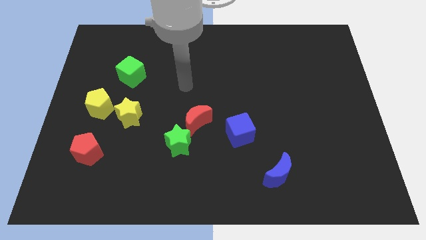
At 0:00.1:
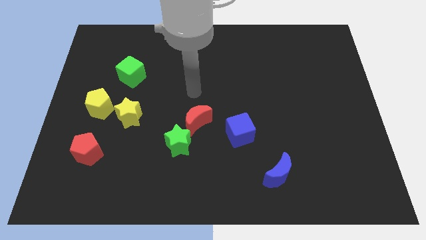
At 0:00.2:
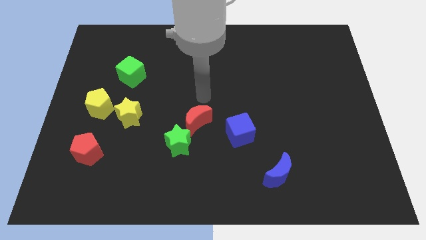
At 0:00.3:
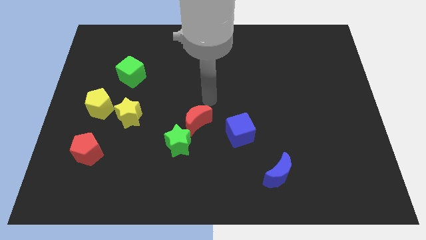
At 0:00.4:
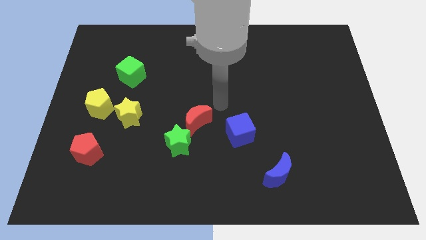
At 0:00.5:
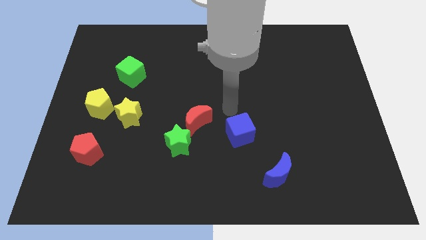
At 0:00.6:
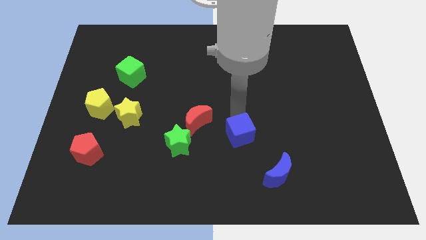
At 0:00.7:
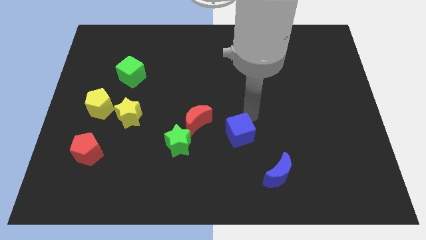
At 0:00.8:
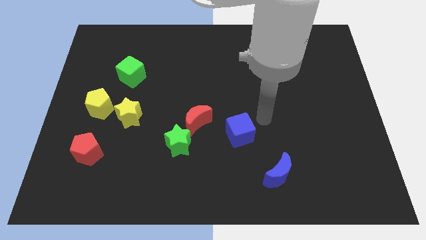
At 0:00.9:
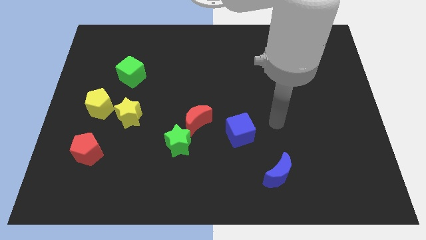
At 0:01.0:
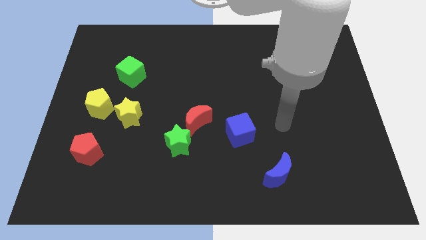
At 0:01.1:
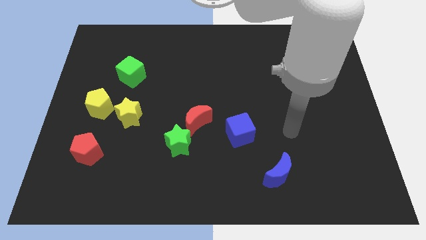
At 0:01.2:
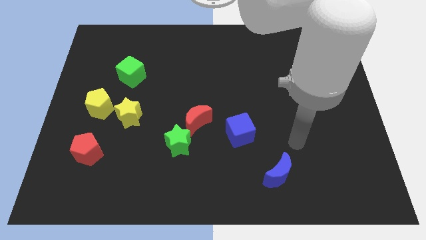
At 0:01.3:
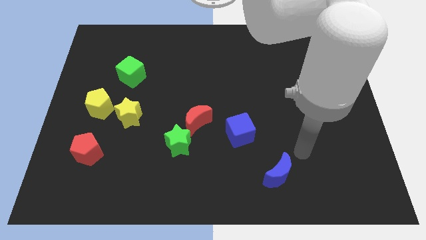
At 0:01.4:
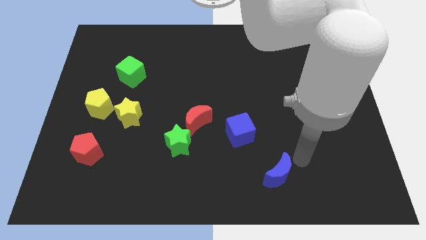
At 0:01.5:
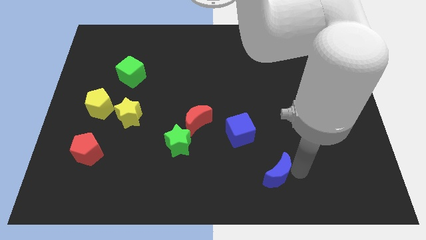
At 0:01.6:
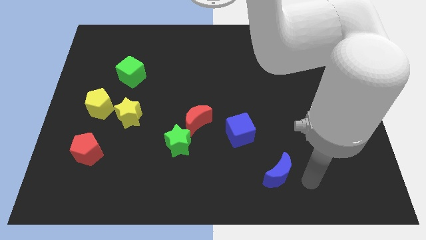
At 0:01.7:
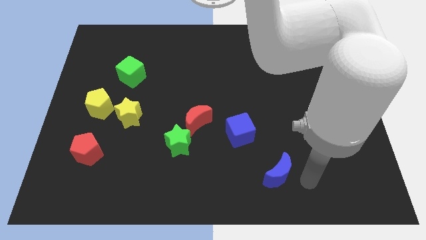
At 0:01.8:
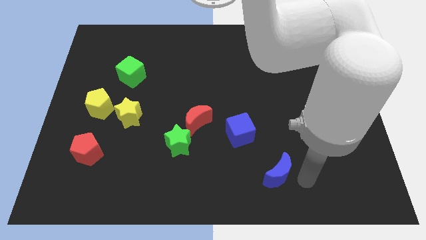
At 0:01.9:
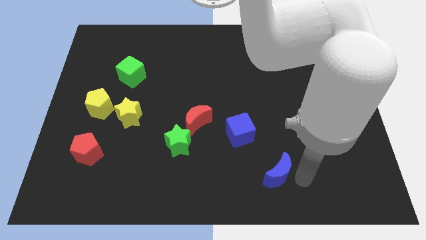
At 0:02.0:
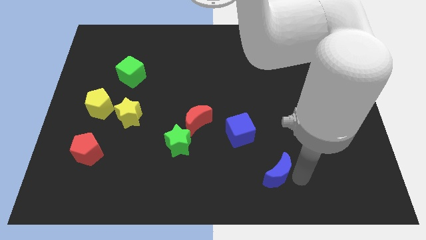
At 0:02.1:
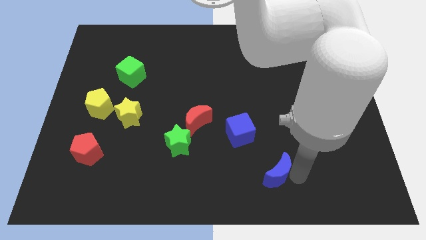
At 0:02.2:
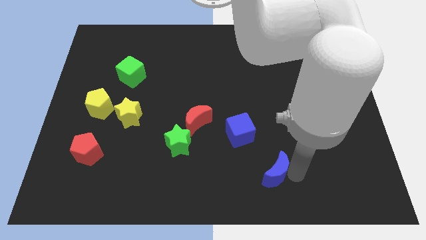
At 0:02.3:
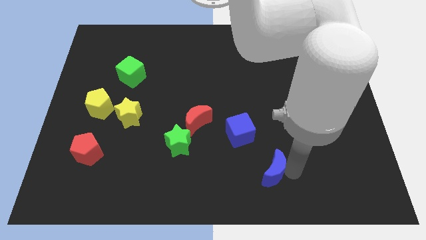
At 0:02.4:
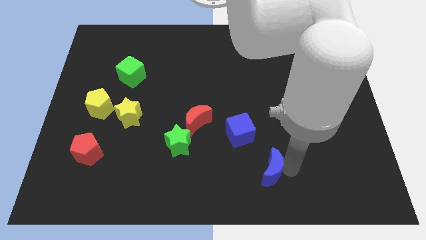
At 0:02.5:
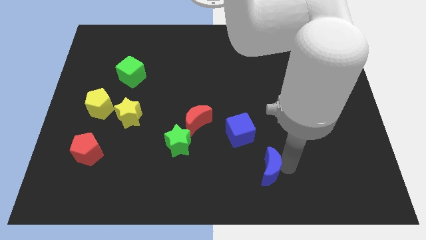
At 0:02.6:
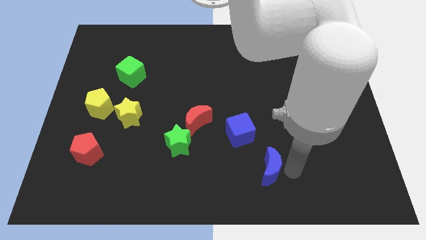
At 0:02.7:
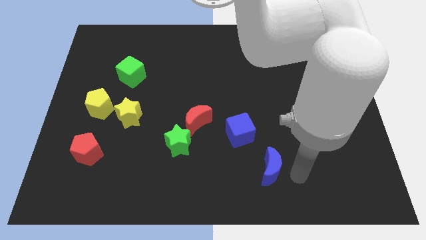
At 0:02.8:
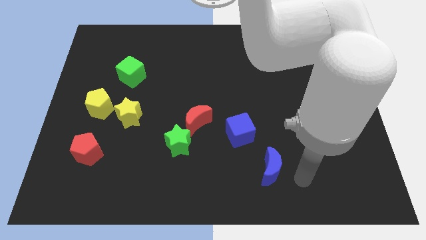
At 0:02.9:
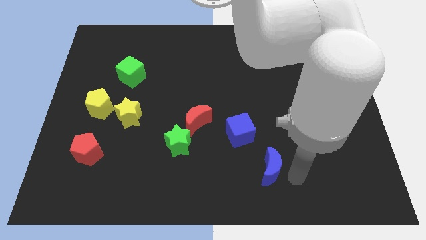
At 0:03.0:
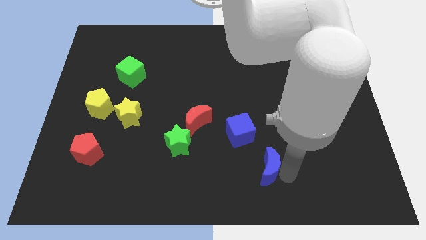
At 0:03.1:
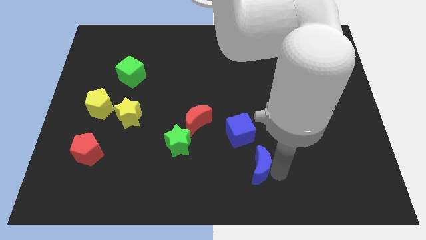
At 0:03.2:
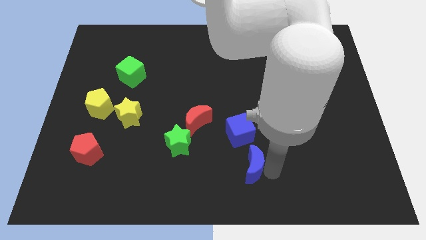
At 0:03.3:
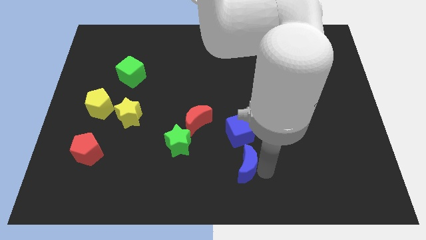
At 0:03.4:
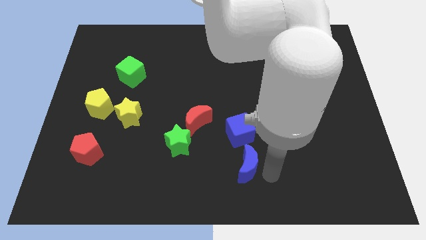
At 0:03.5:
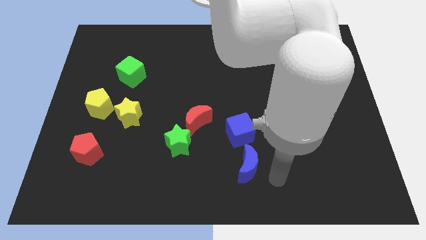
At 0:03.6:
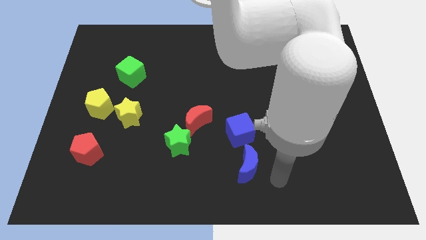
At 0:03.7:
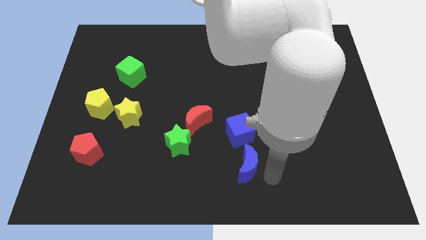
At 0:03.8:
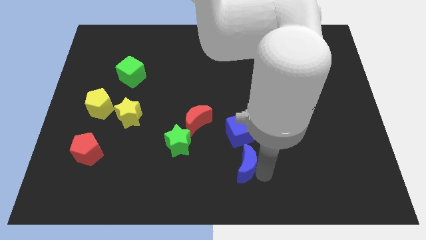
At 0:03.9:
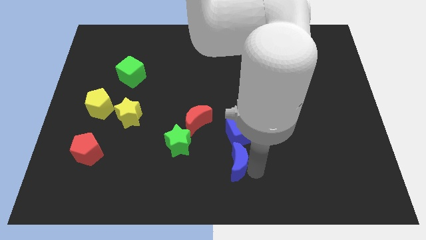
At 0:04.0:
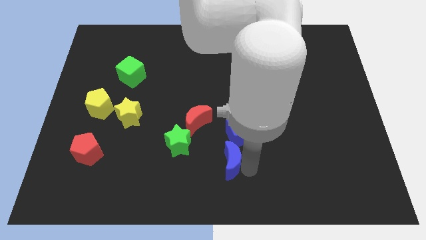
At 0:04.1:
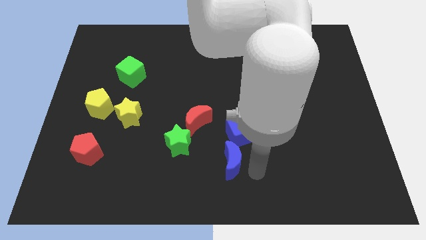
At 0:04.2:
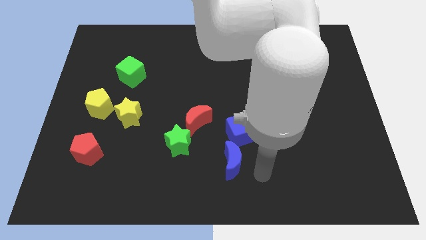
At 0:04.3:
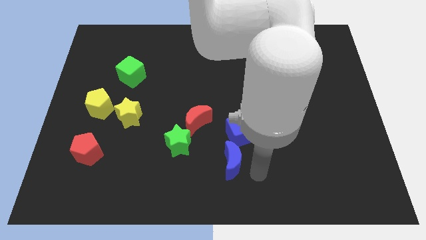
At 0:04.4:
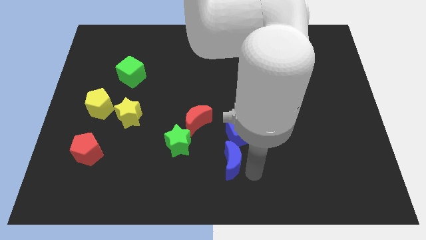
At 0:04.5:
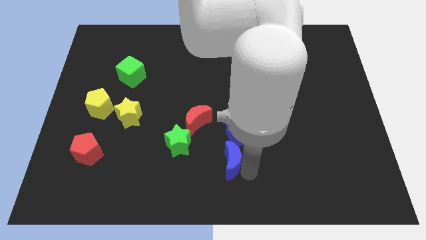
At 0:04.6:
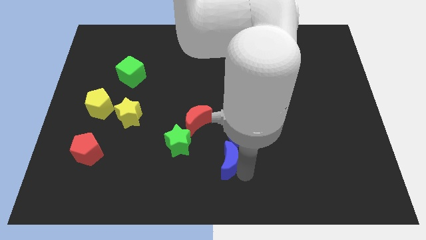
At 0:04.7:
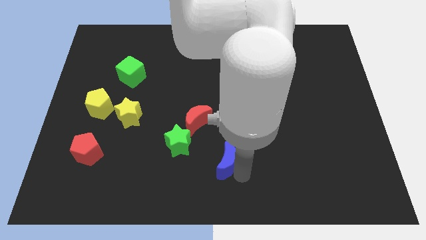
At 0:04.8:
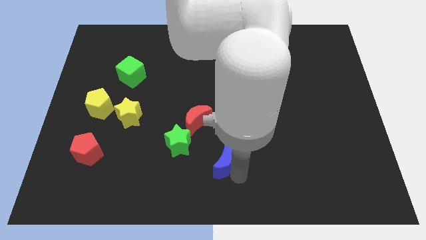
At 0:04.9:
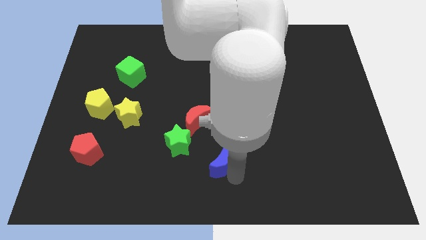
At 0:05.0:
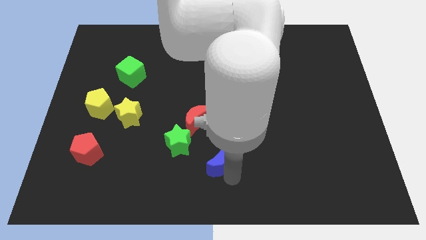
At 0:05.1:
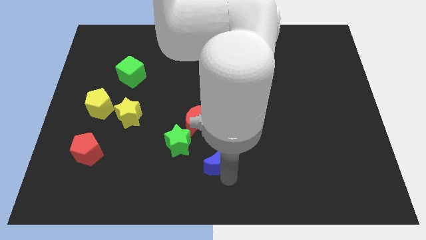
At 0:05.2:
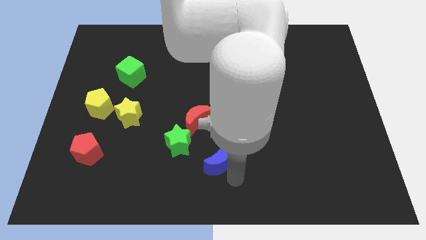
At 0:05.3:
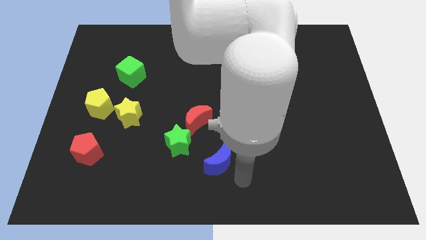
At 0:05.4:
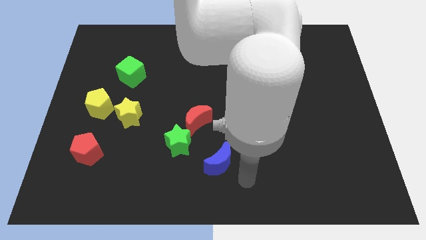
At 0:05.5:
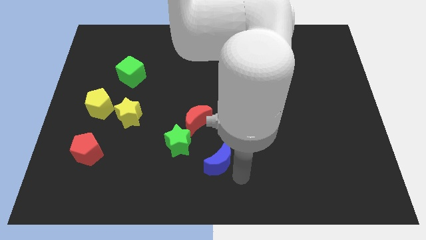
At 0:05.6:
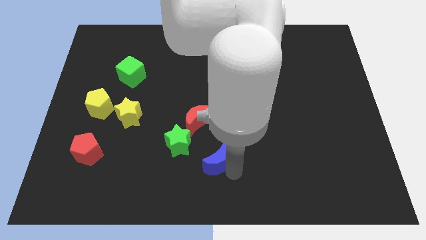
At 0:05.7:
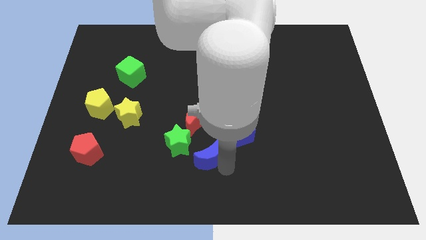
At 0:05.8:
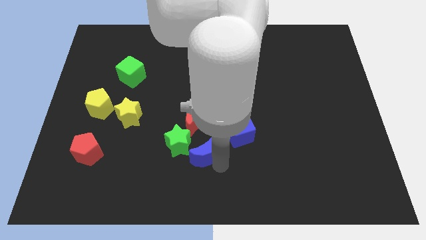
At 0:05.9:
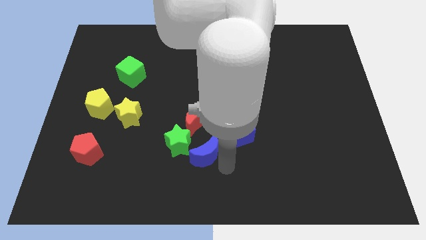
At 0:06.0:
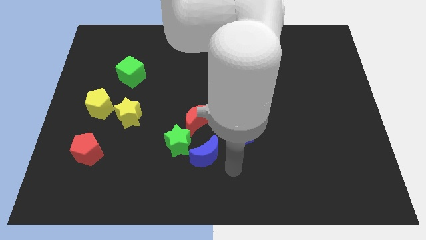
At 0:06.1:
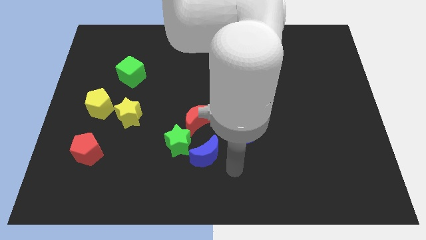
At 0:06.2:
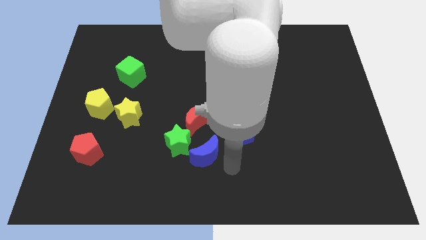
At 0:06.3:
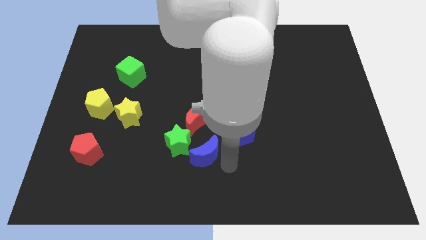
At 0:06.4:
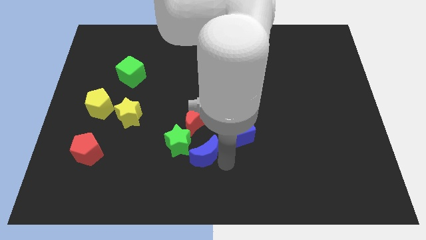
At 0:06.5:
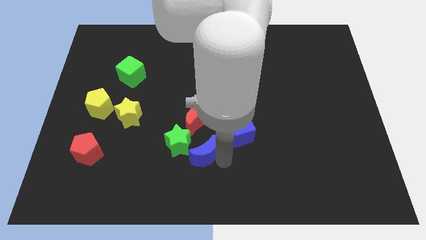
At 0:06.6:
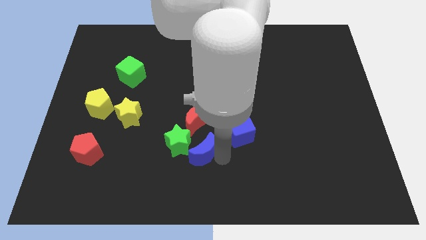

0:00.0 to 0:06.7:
move the blue moon close to the green star

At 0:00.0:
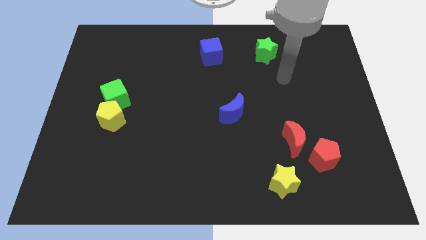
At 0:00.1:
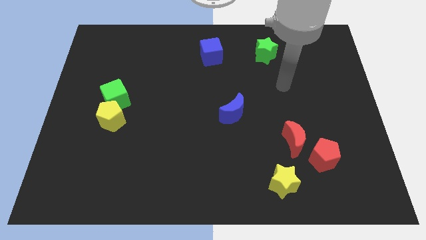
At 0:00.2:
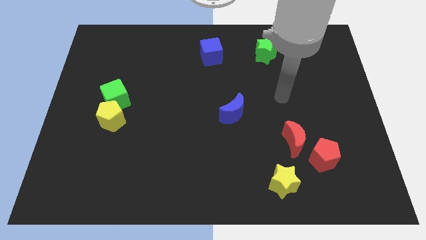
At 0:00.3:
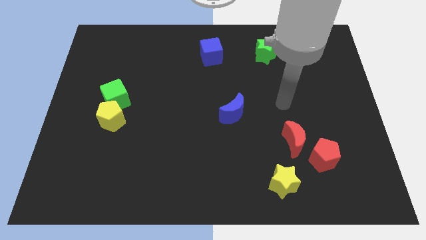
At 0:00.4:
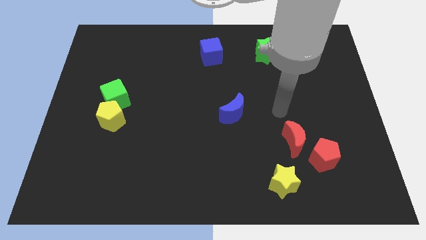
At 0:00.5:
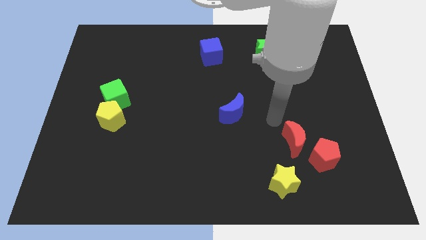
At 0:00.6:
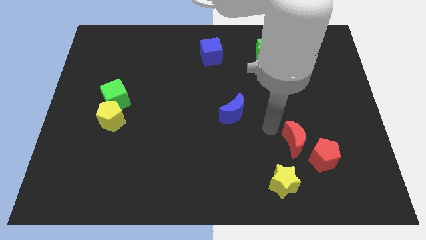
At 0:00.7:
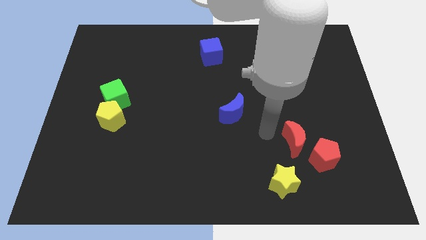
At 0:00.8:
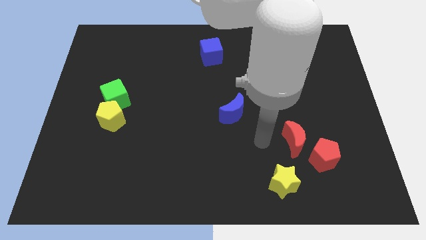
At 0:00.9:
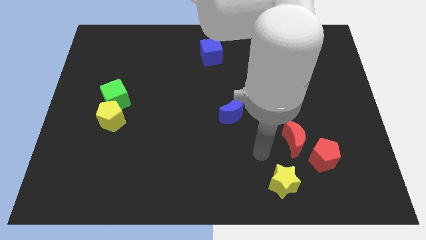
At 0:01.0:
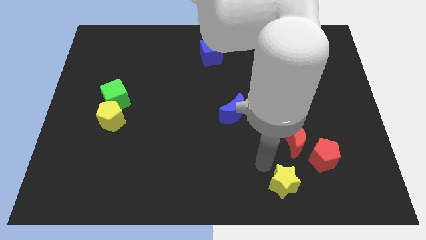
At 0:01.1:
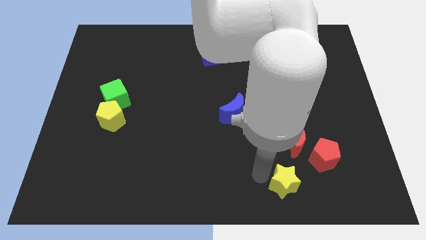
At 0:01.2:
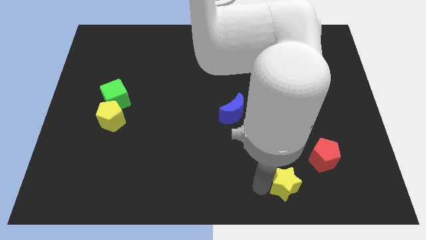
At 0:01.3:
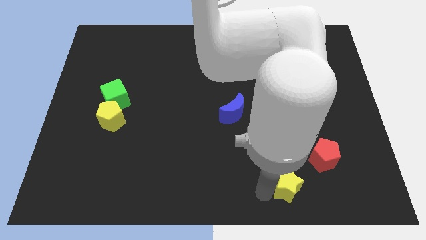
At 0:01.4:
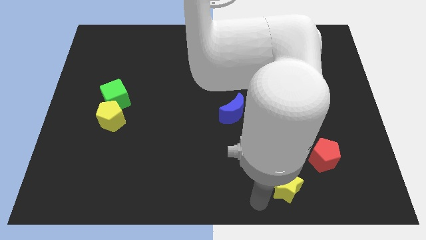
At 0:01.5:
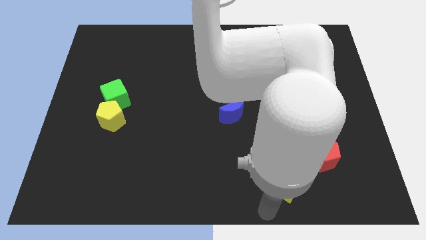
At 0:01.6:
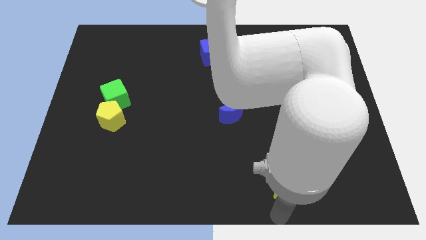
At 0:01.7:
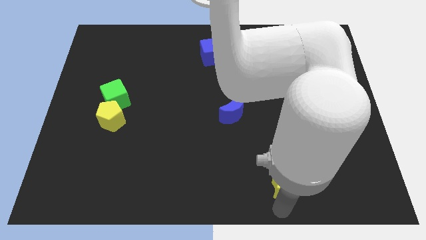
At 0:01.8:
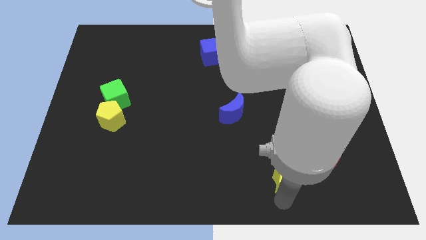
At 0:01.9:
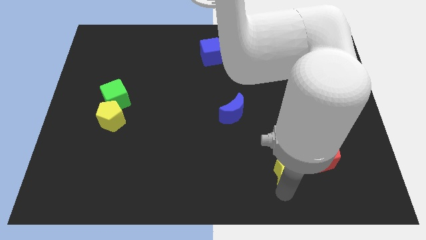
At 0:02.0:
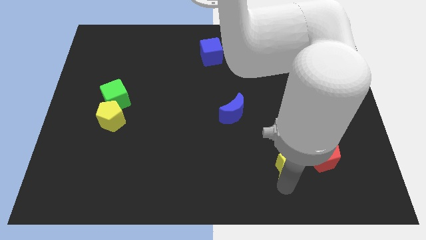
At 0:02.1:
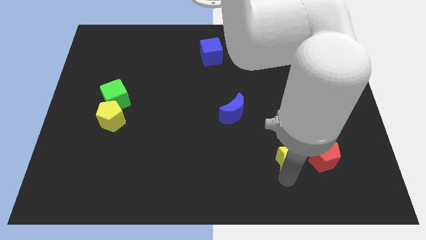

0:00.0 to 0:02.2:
push the yellow star next to the red moon
